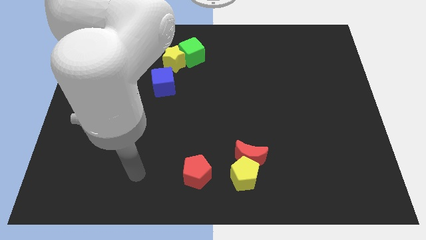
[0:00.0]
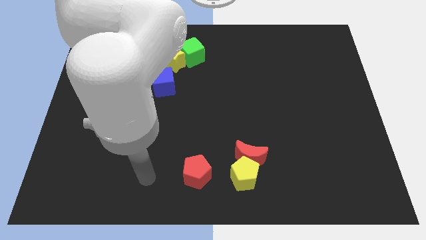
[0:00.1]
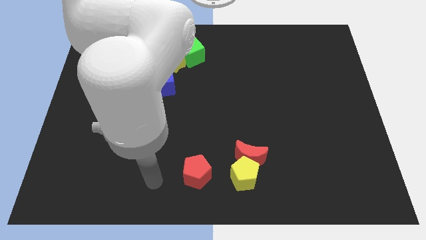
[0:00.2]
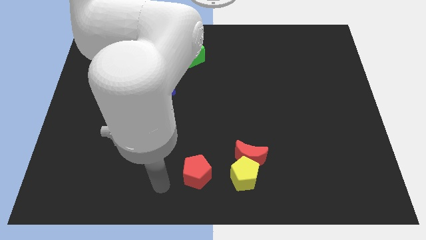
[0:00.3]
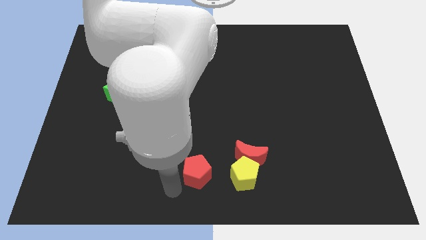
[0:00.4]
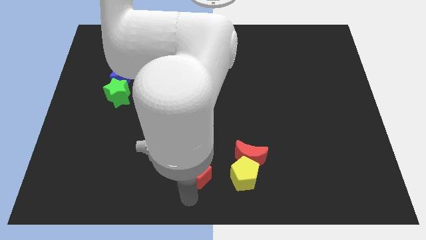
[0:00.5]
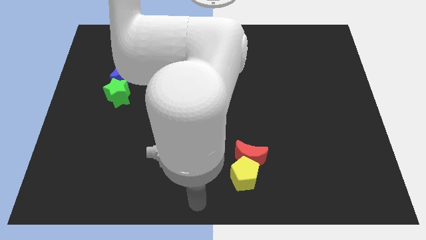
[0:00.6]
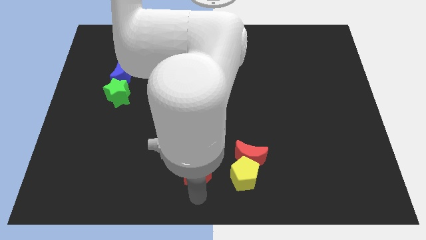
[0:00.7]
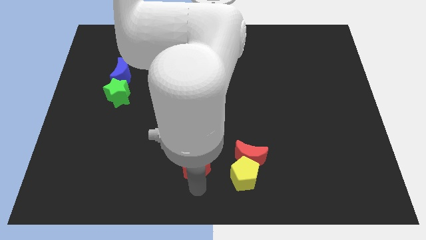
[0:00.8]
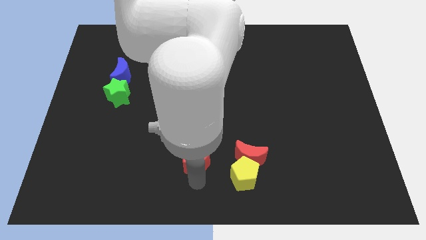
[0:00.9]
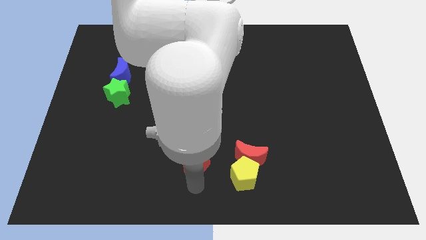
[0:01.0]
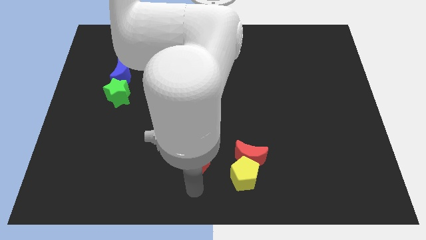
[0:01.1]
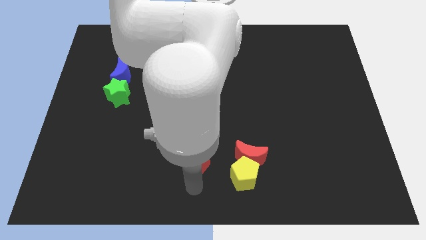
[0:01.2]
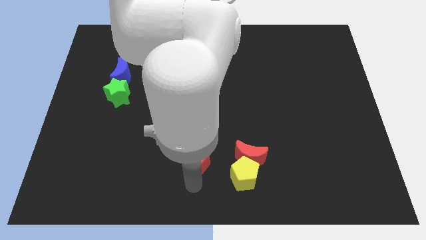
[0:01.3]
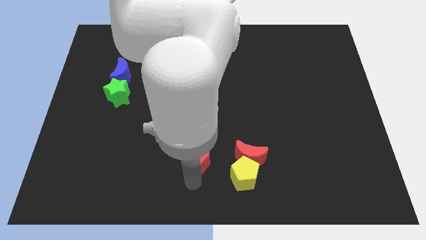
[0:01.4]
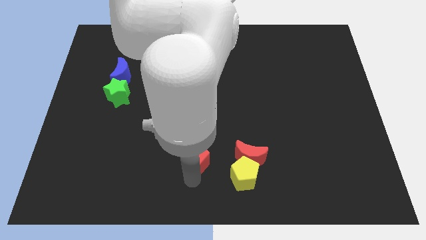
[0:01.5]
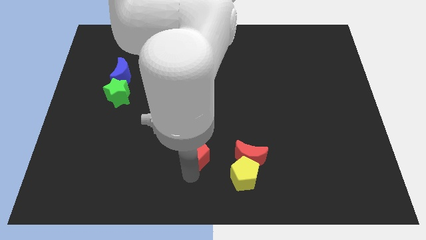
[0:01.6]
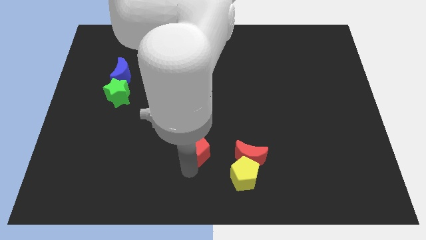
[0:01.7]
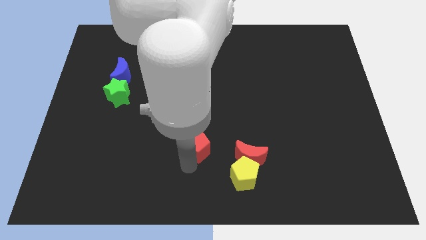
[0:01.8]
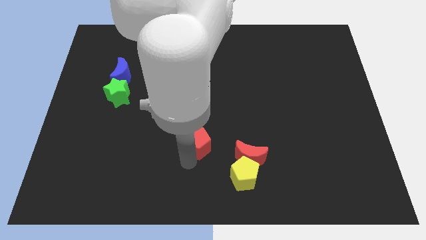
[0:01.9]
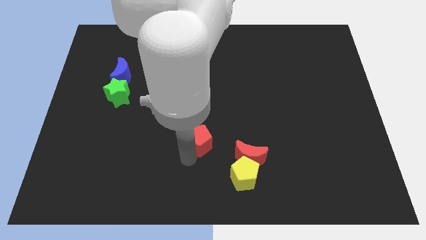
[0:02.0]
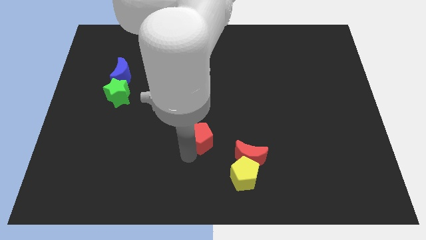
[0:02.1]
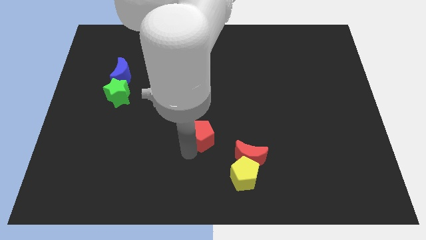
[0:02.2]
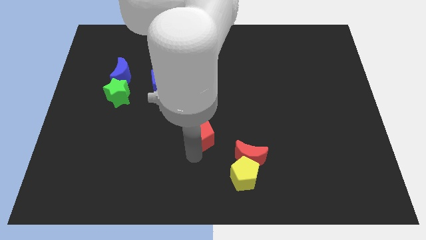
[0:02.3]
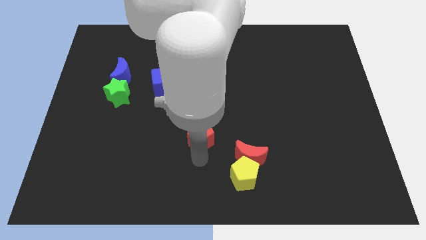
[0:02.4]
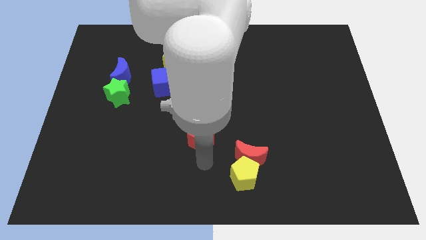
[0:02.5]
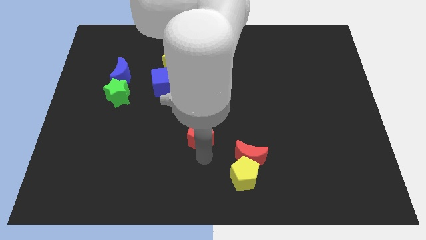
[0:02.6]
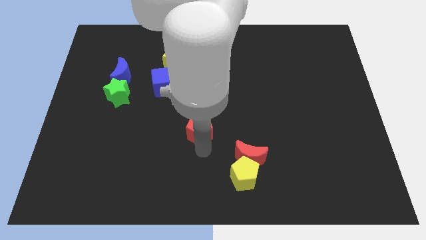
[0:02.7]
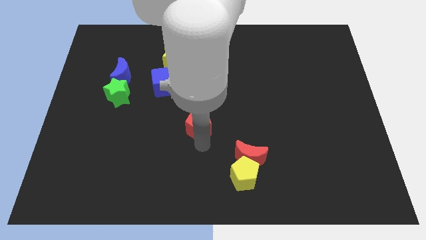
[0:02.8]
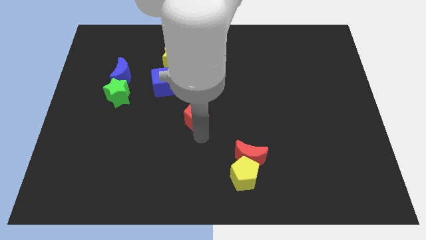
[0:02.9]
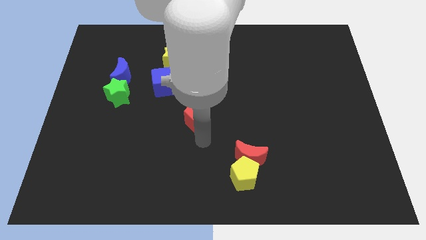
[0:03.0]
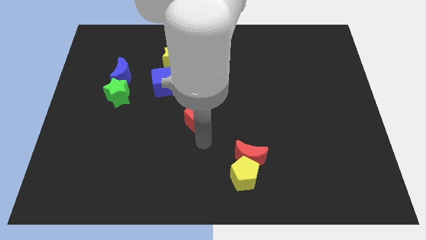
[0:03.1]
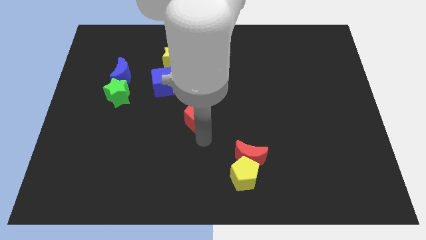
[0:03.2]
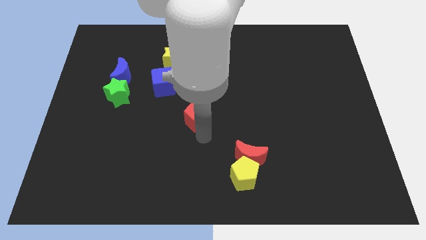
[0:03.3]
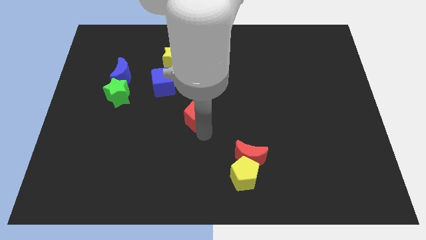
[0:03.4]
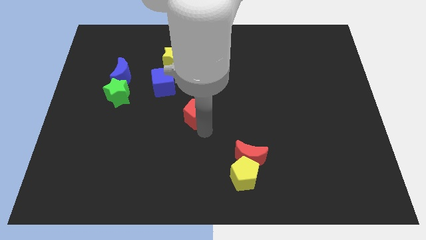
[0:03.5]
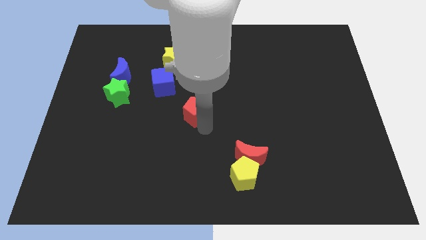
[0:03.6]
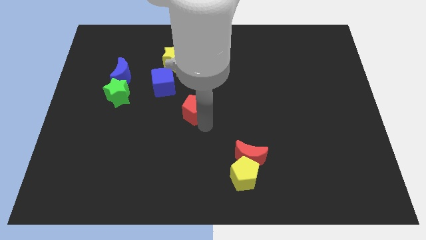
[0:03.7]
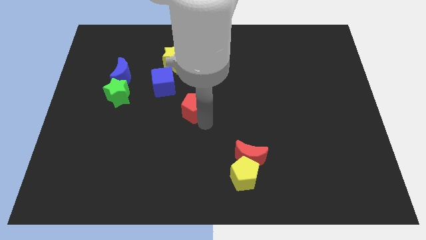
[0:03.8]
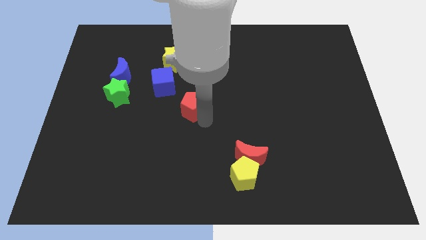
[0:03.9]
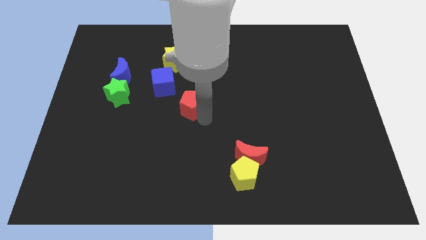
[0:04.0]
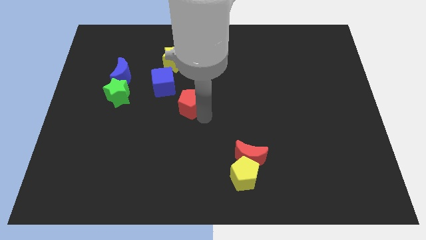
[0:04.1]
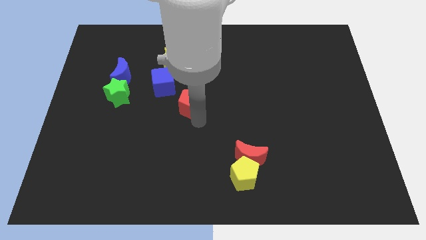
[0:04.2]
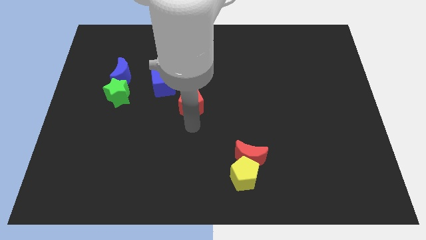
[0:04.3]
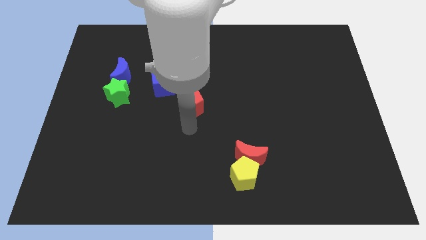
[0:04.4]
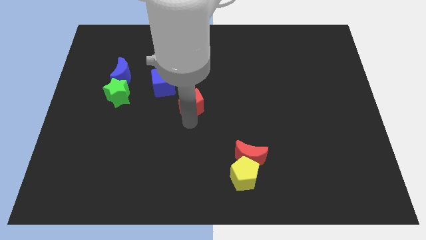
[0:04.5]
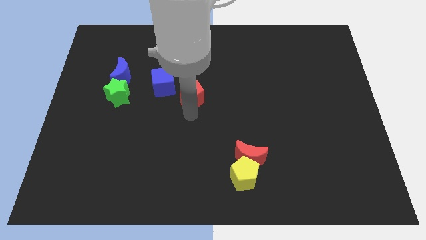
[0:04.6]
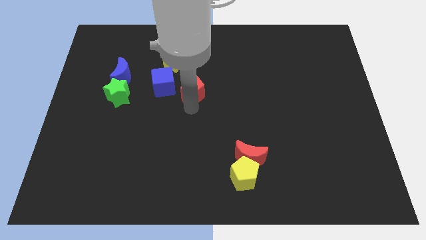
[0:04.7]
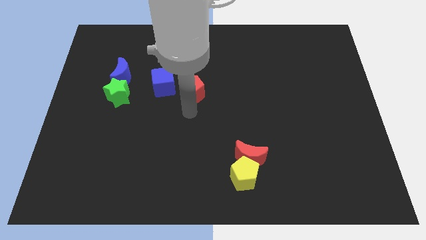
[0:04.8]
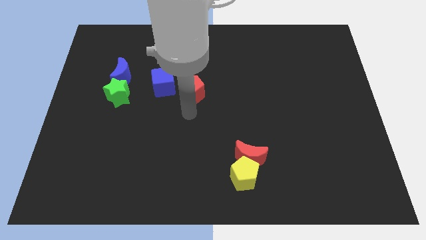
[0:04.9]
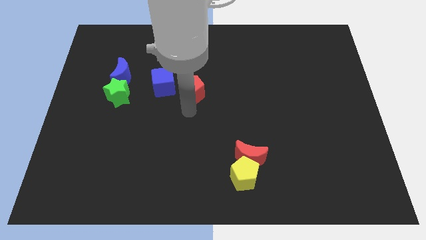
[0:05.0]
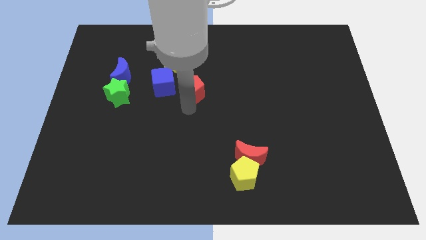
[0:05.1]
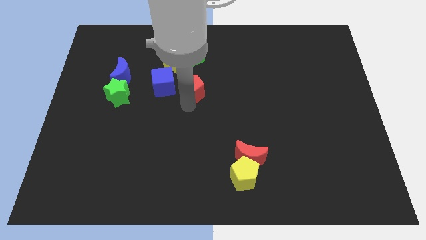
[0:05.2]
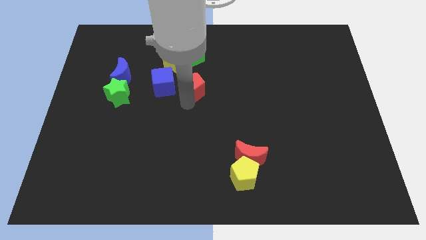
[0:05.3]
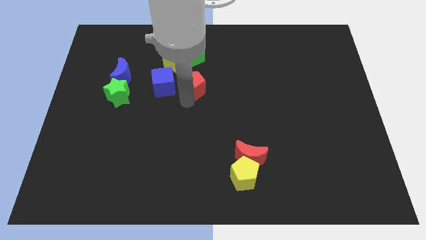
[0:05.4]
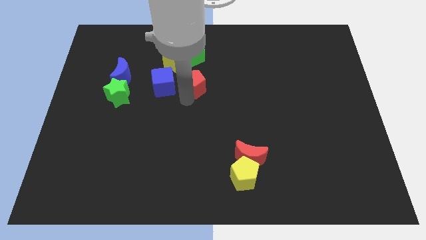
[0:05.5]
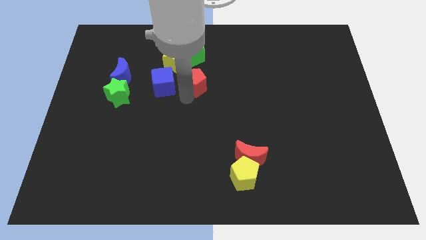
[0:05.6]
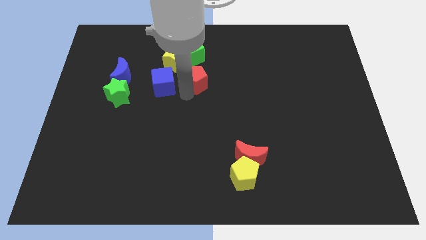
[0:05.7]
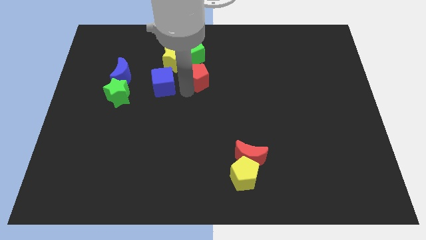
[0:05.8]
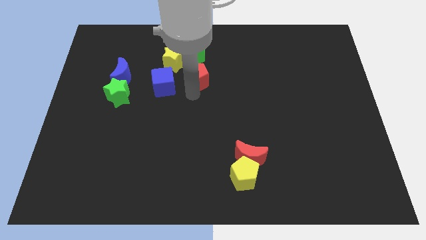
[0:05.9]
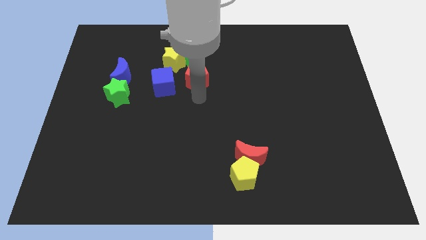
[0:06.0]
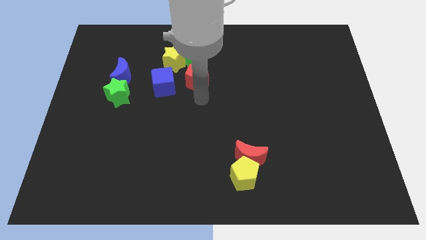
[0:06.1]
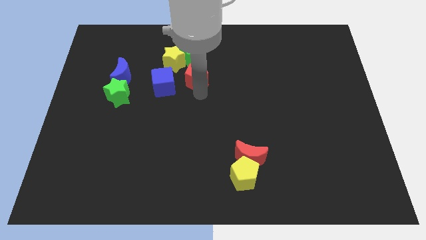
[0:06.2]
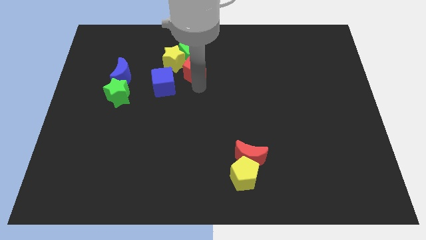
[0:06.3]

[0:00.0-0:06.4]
slide the red pentagon towards the green cube

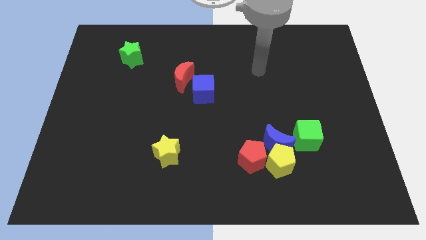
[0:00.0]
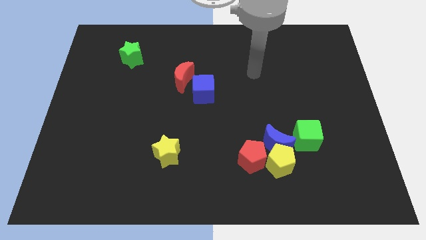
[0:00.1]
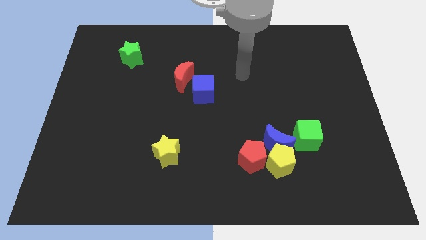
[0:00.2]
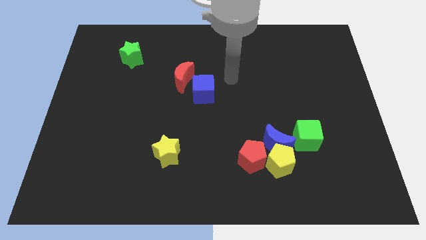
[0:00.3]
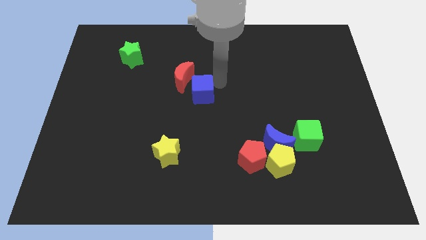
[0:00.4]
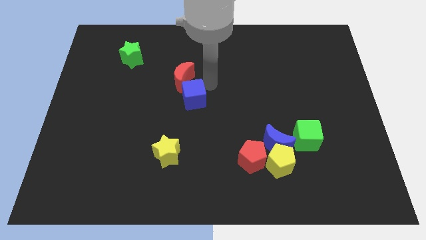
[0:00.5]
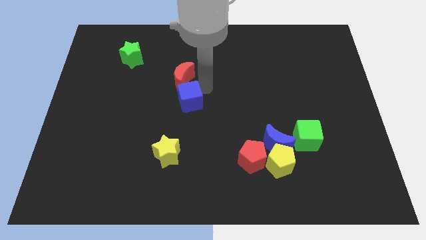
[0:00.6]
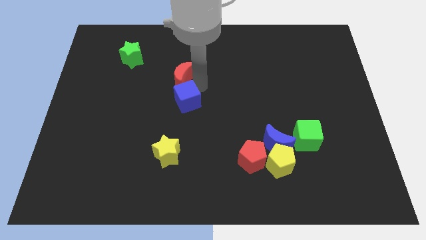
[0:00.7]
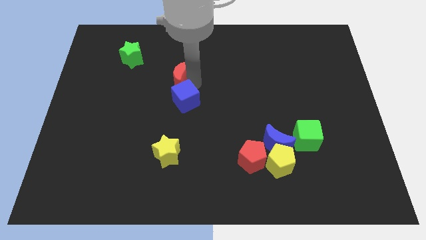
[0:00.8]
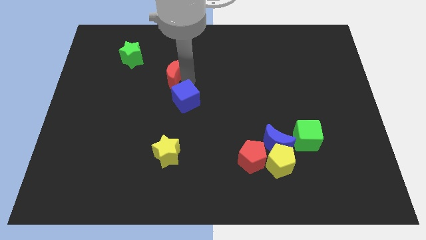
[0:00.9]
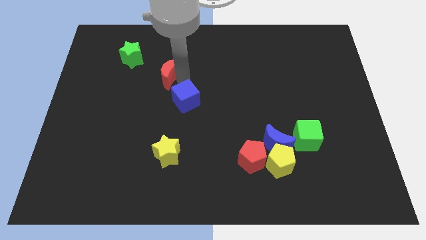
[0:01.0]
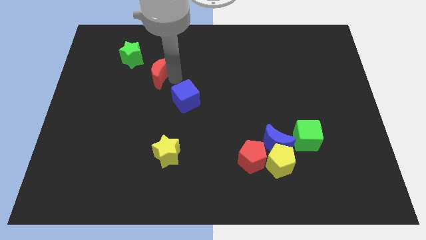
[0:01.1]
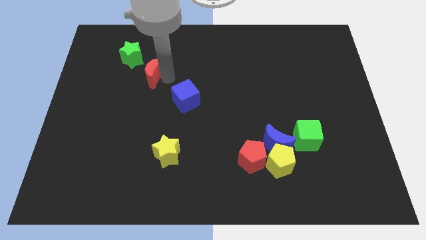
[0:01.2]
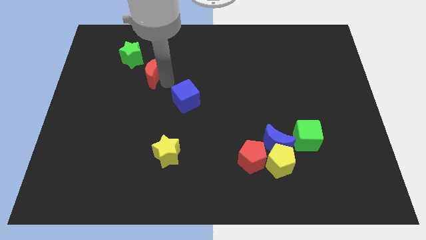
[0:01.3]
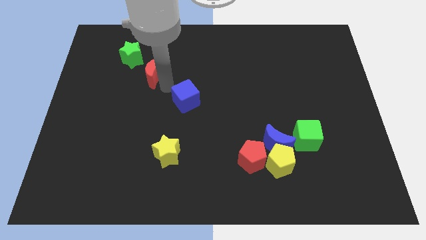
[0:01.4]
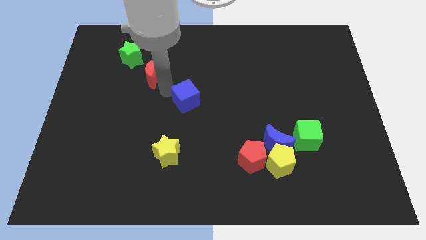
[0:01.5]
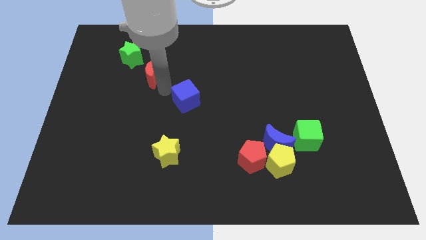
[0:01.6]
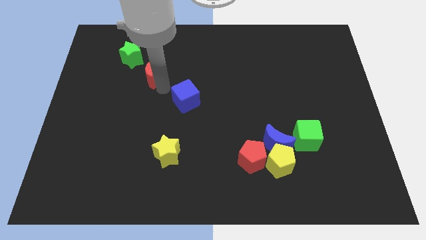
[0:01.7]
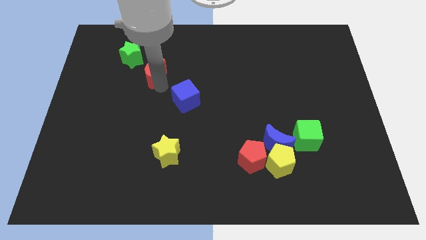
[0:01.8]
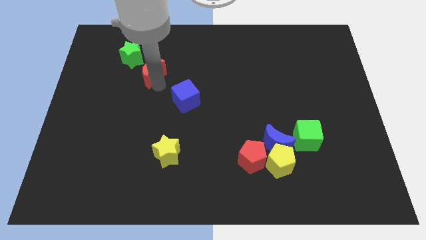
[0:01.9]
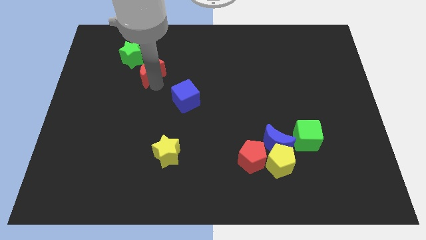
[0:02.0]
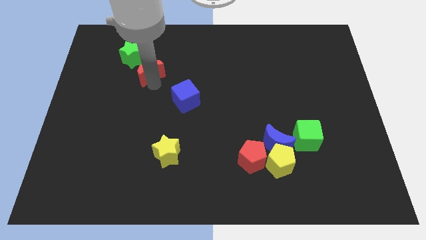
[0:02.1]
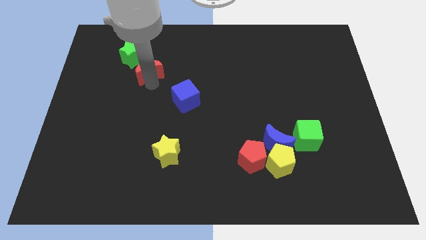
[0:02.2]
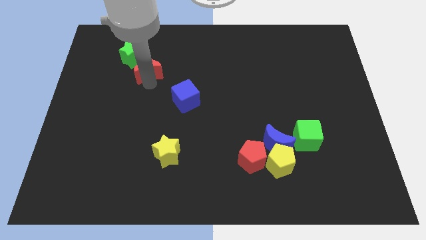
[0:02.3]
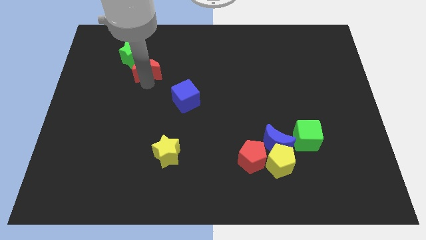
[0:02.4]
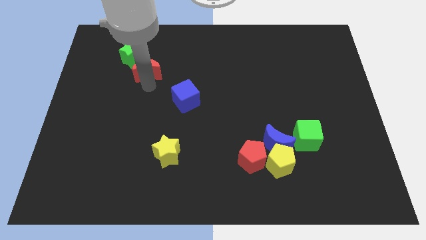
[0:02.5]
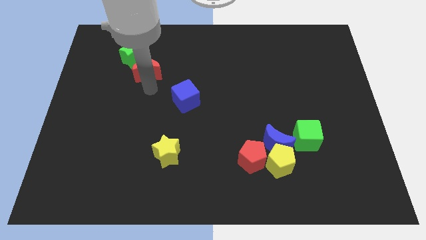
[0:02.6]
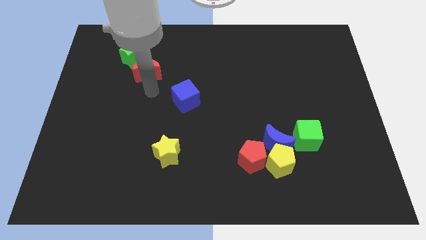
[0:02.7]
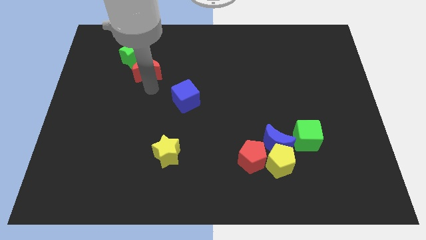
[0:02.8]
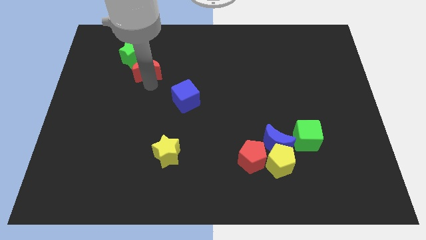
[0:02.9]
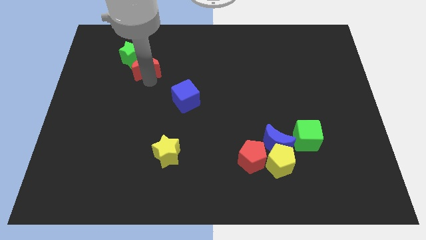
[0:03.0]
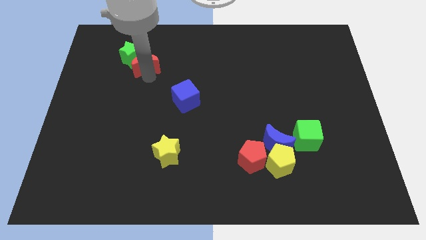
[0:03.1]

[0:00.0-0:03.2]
put the red moon towards the green star
